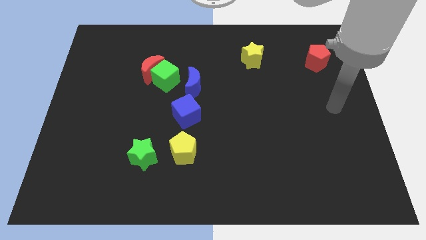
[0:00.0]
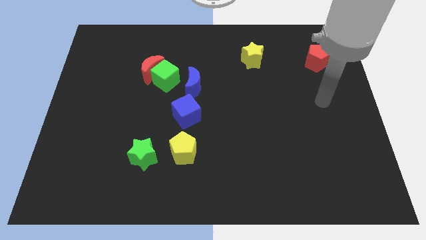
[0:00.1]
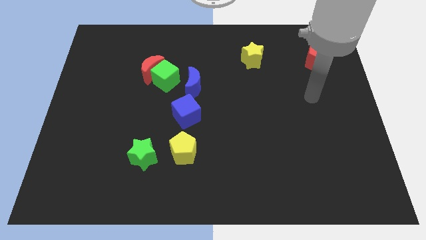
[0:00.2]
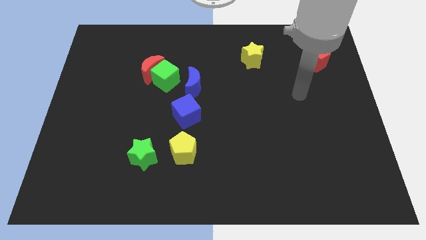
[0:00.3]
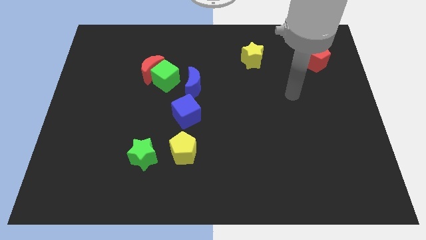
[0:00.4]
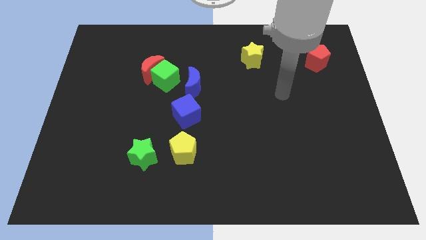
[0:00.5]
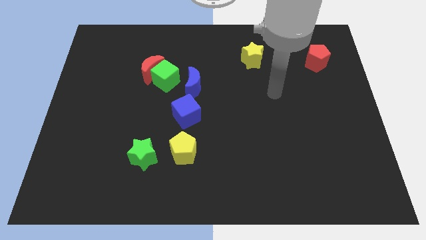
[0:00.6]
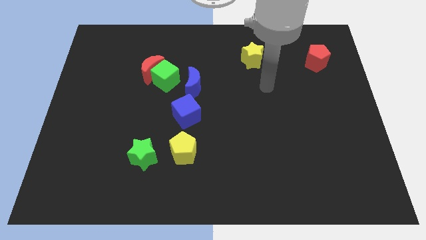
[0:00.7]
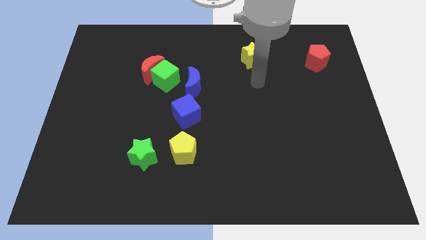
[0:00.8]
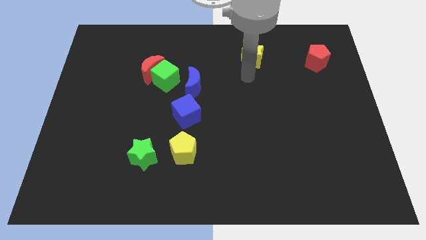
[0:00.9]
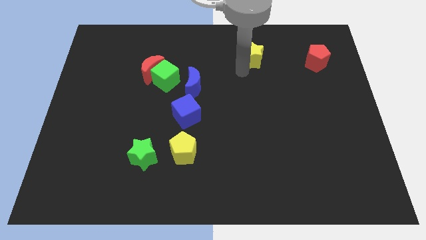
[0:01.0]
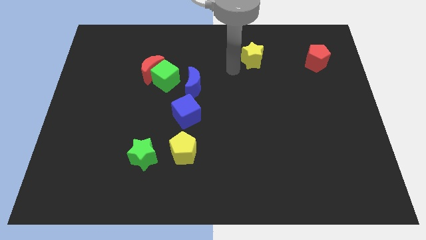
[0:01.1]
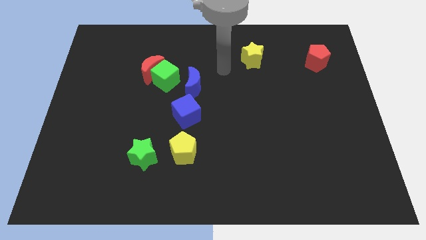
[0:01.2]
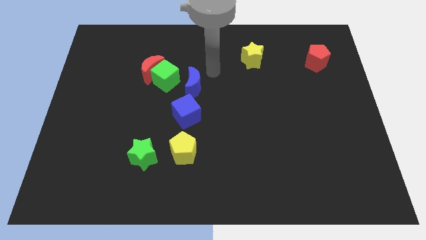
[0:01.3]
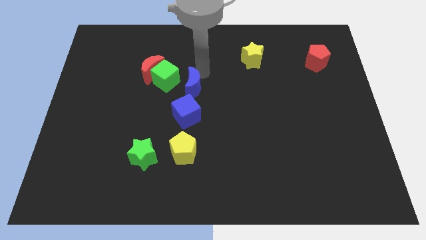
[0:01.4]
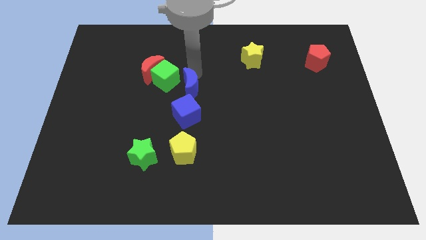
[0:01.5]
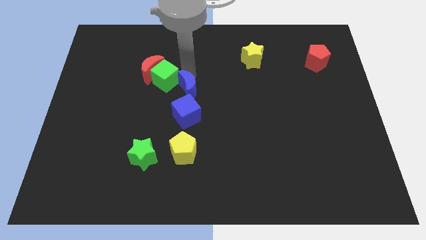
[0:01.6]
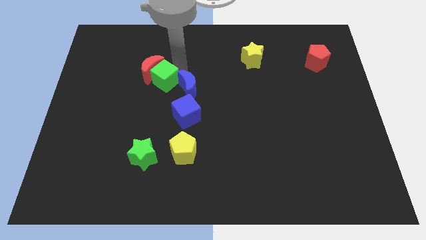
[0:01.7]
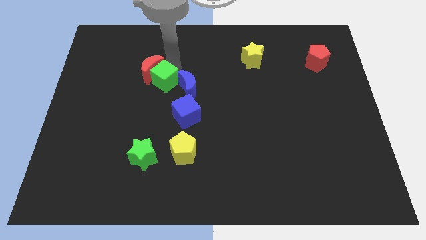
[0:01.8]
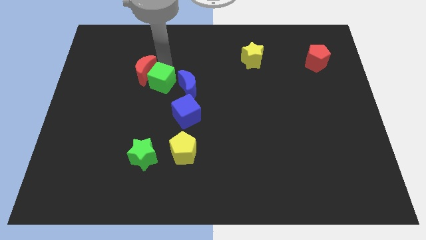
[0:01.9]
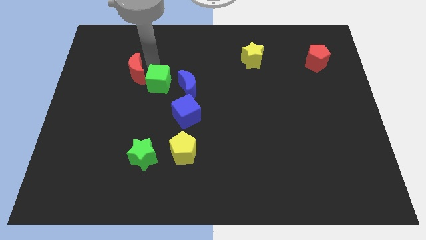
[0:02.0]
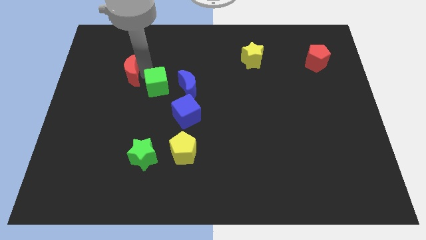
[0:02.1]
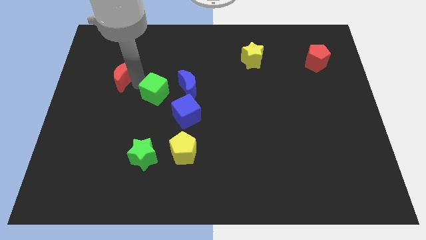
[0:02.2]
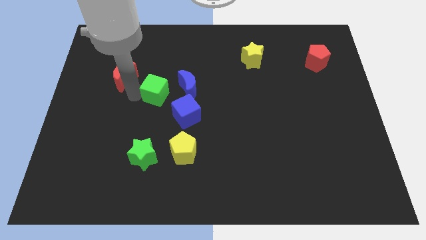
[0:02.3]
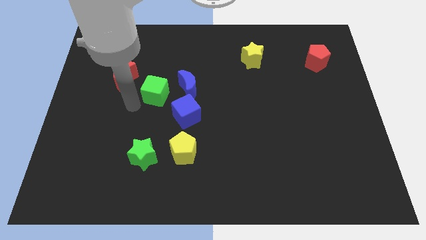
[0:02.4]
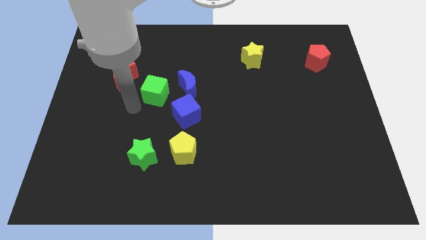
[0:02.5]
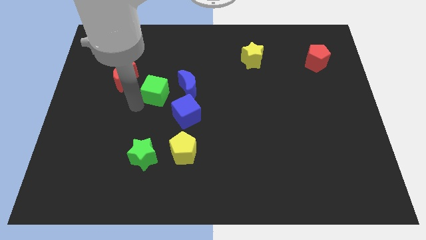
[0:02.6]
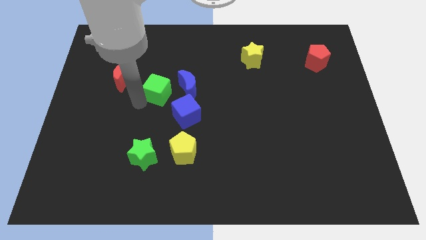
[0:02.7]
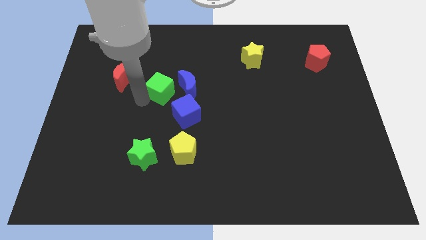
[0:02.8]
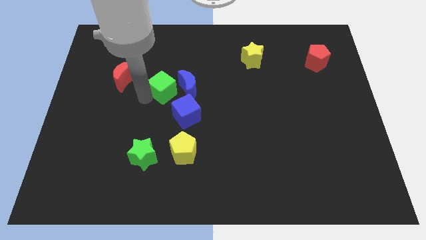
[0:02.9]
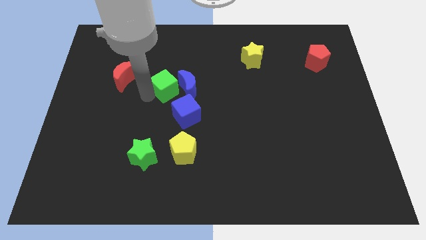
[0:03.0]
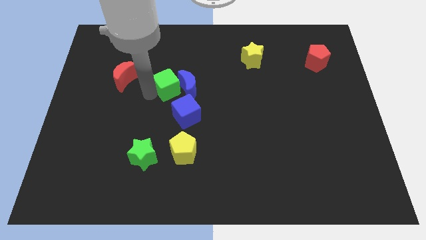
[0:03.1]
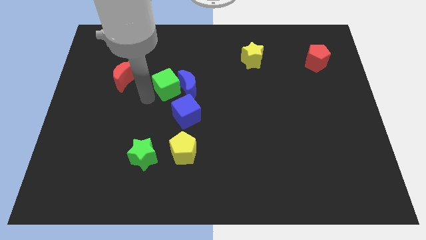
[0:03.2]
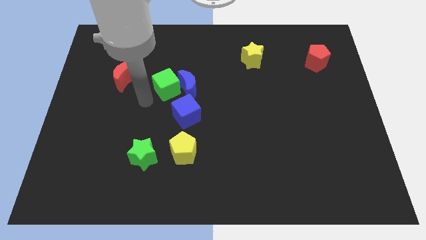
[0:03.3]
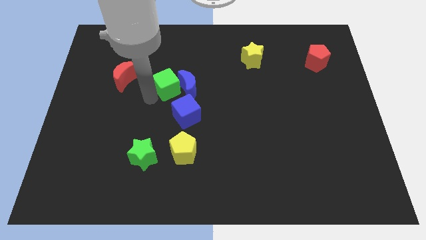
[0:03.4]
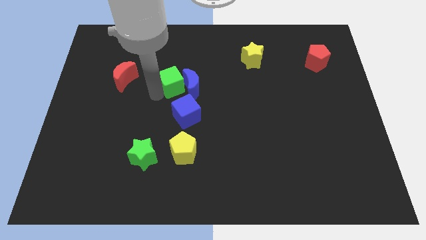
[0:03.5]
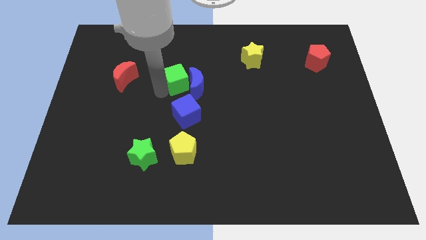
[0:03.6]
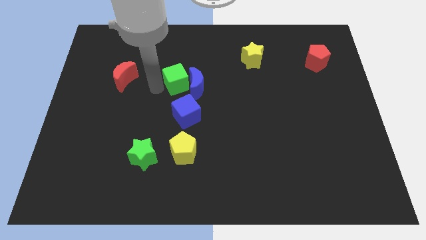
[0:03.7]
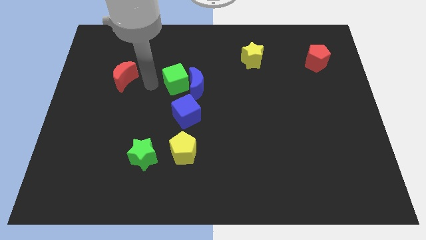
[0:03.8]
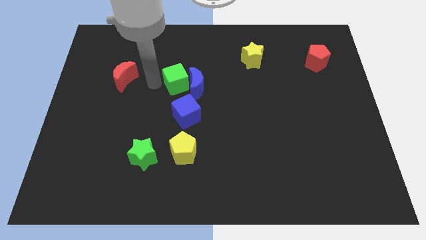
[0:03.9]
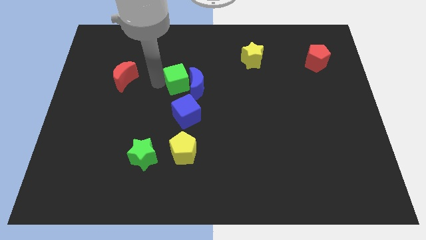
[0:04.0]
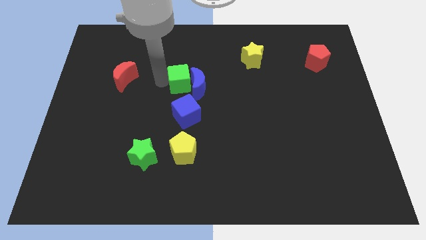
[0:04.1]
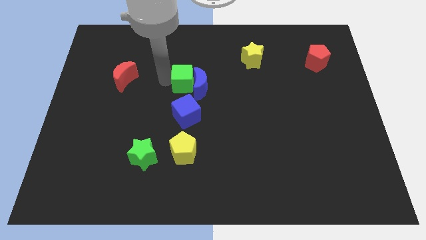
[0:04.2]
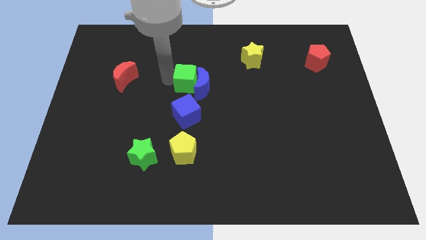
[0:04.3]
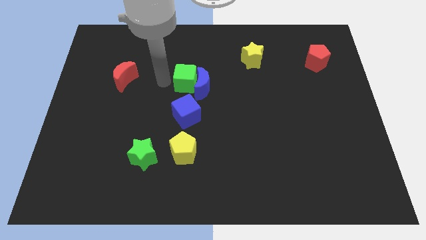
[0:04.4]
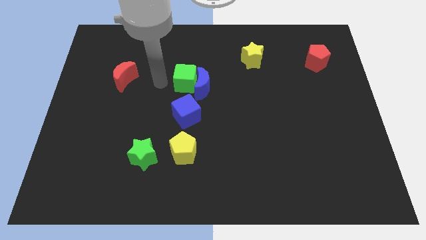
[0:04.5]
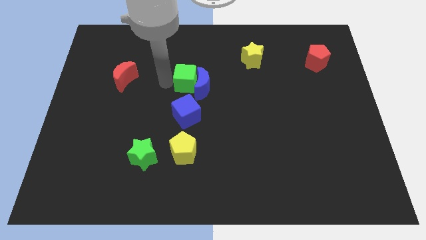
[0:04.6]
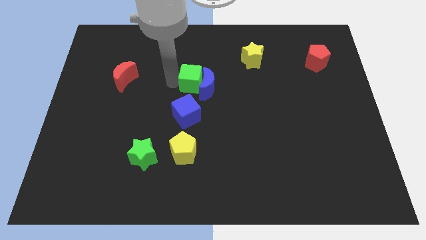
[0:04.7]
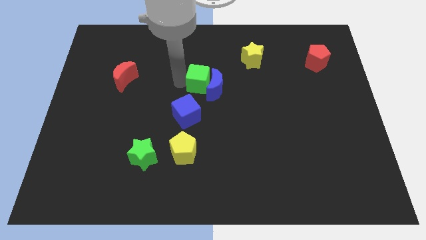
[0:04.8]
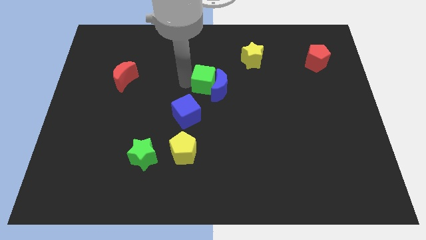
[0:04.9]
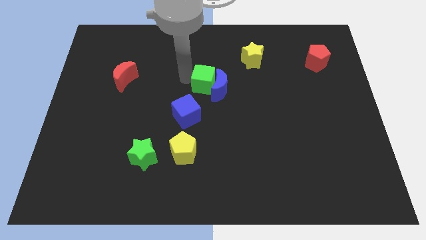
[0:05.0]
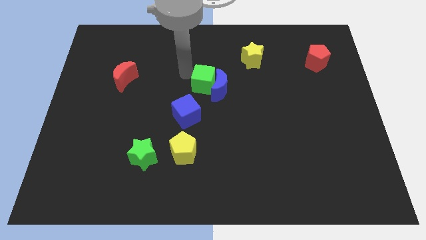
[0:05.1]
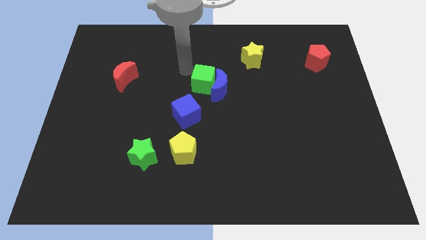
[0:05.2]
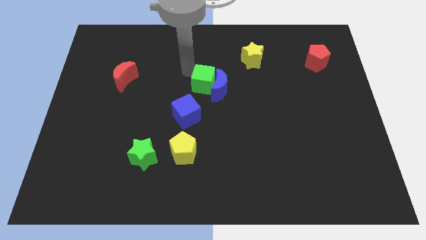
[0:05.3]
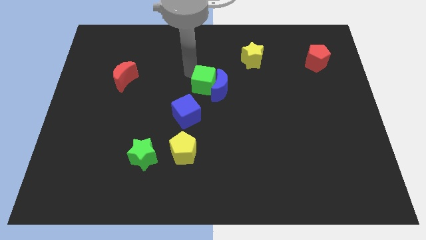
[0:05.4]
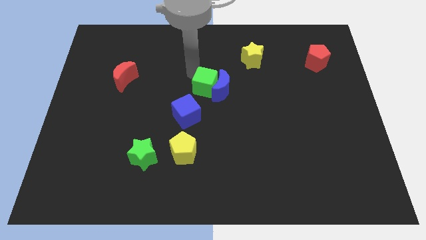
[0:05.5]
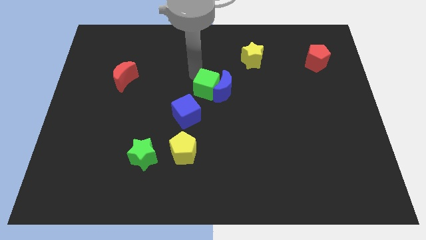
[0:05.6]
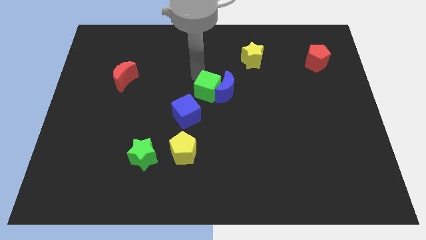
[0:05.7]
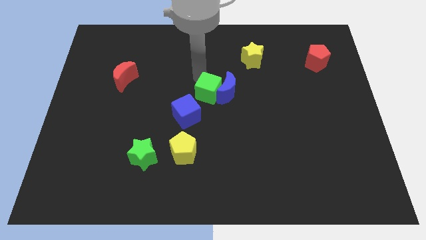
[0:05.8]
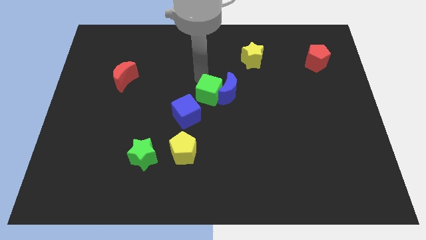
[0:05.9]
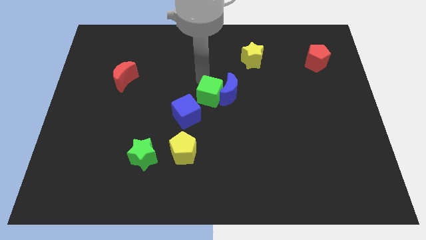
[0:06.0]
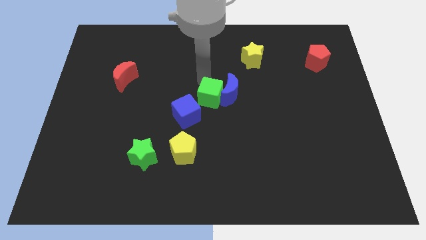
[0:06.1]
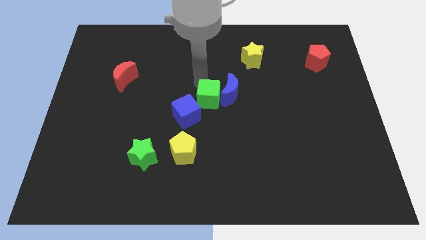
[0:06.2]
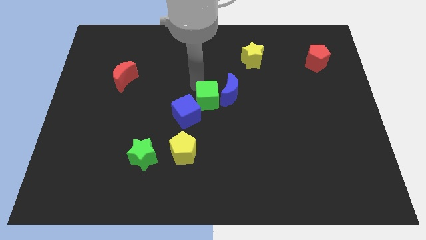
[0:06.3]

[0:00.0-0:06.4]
slide the green cube to the right of the blue cube

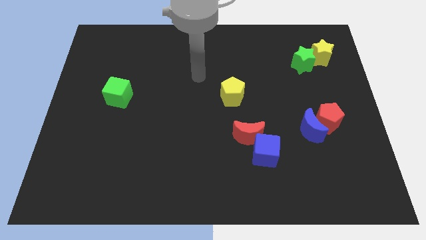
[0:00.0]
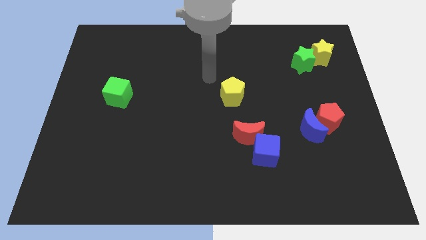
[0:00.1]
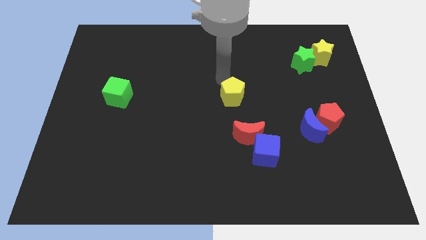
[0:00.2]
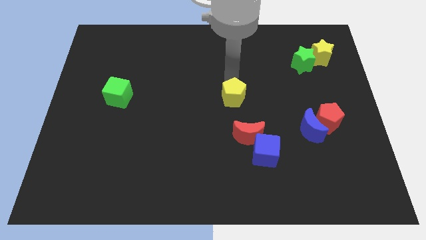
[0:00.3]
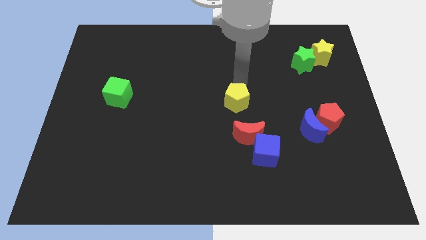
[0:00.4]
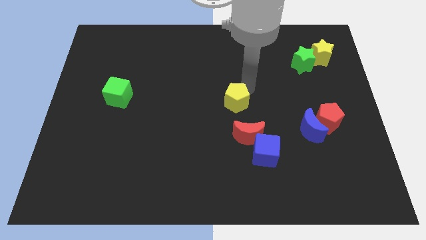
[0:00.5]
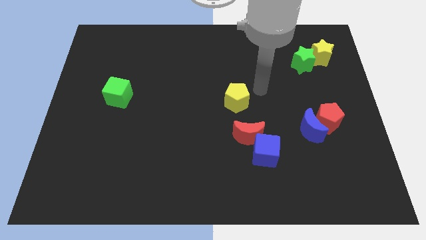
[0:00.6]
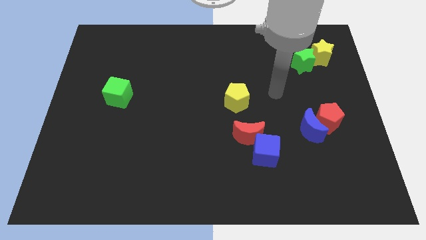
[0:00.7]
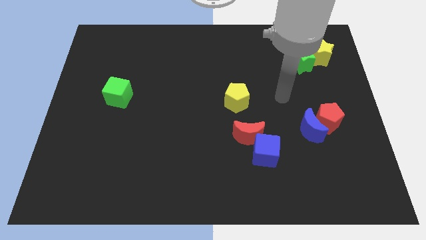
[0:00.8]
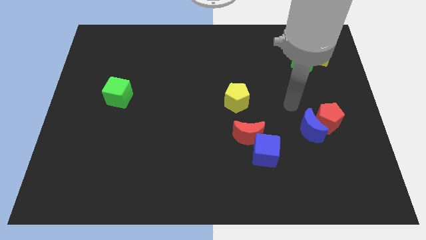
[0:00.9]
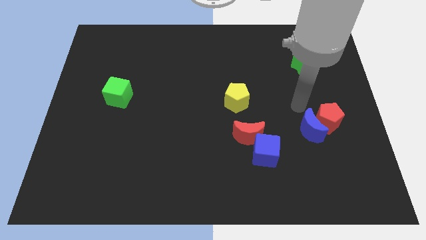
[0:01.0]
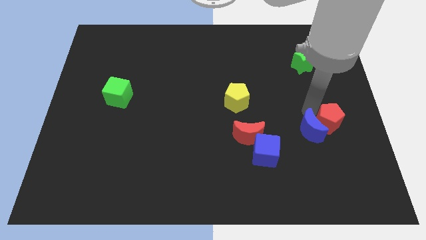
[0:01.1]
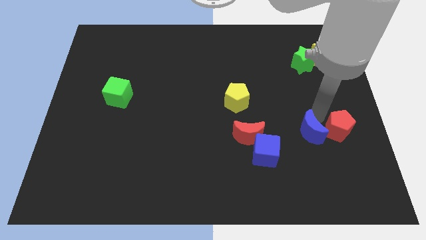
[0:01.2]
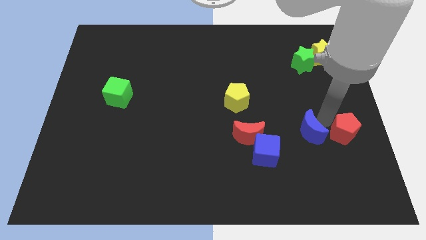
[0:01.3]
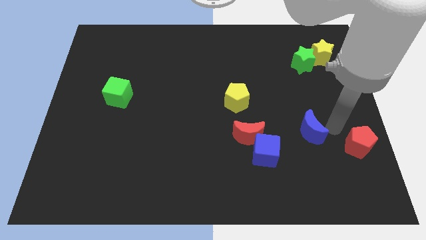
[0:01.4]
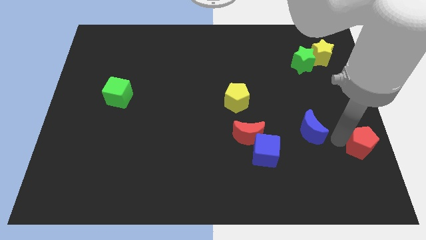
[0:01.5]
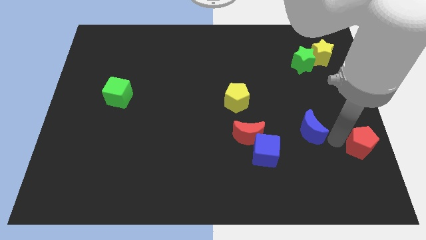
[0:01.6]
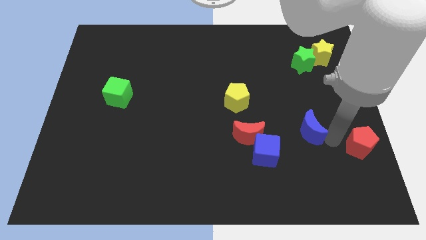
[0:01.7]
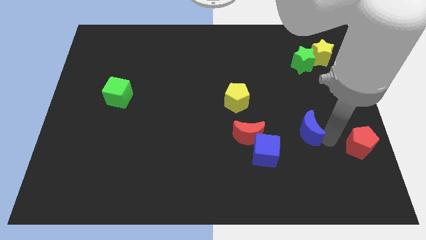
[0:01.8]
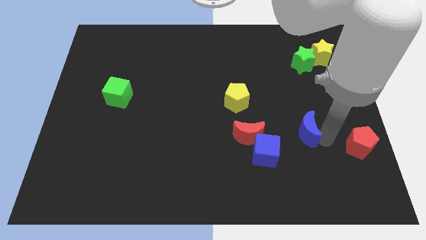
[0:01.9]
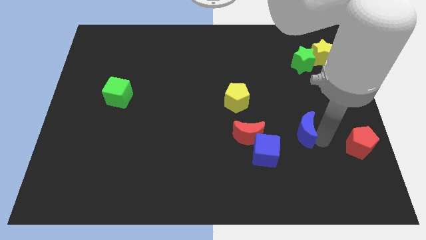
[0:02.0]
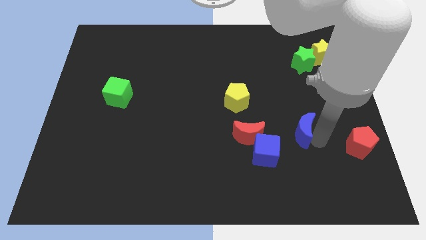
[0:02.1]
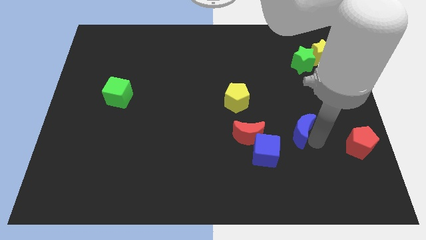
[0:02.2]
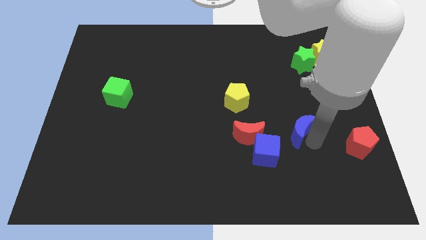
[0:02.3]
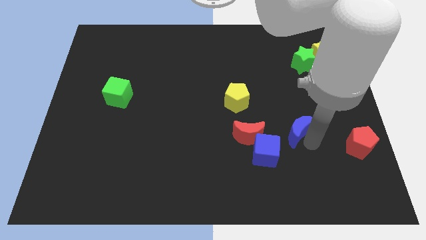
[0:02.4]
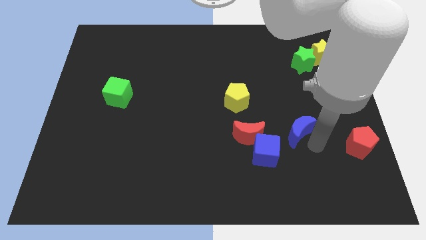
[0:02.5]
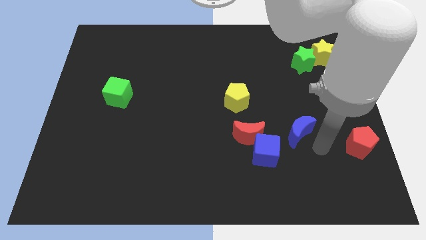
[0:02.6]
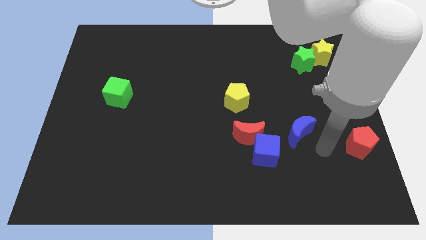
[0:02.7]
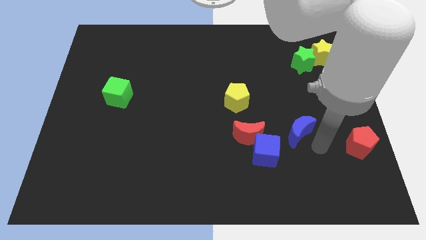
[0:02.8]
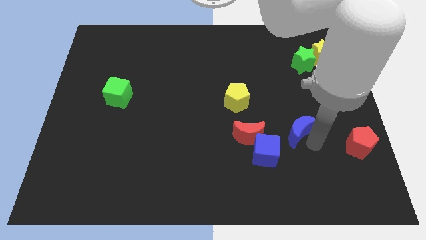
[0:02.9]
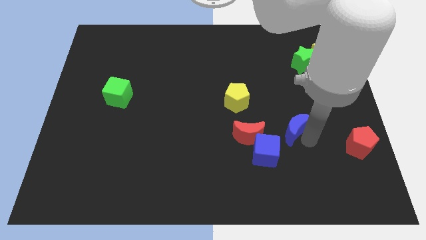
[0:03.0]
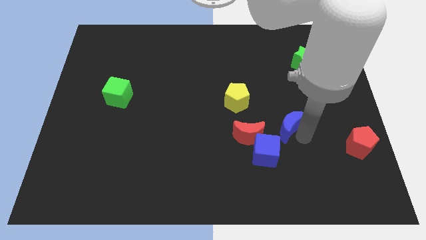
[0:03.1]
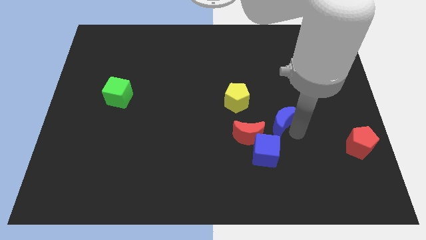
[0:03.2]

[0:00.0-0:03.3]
move the blue moon to the top side of the blue cube
